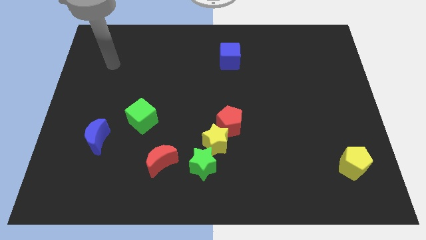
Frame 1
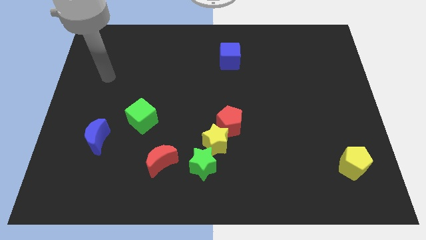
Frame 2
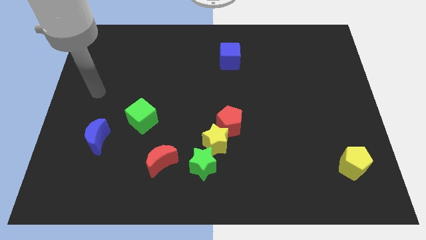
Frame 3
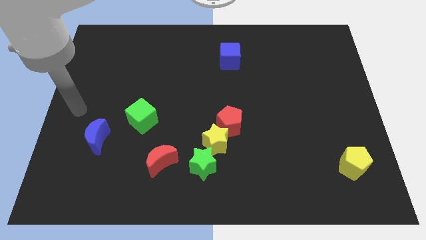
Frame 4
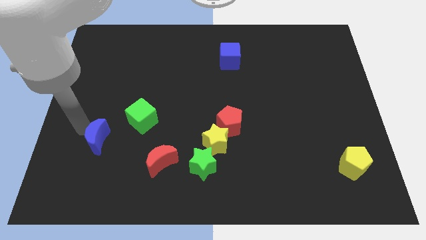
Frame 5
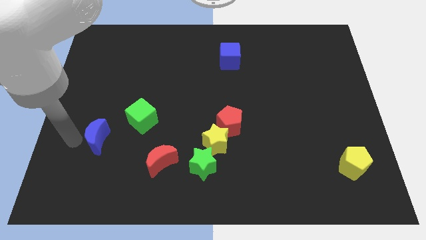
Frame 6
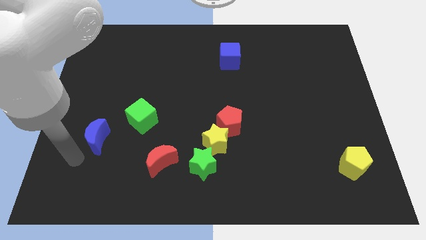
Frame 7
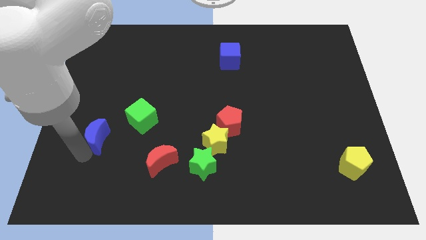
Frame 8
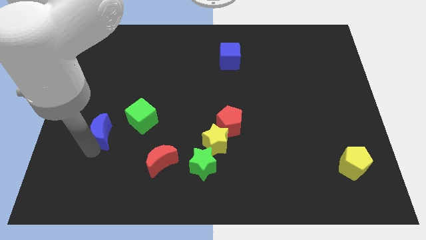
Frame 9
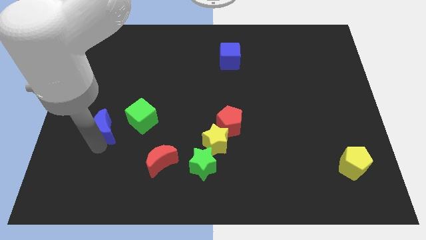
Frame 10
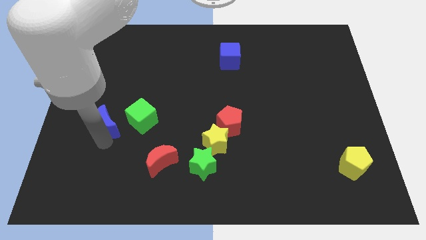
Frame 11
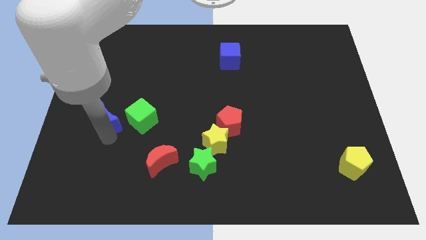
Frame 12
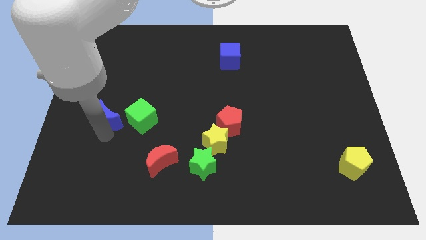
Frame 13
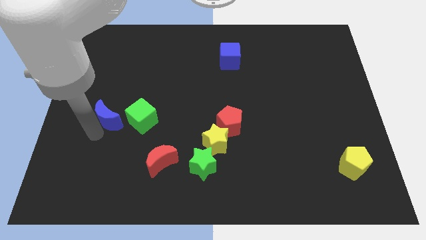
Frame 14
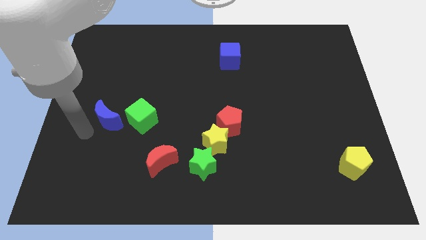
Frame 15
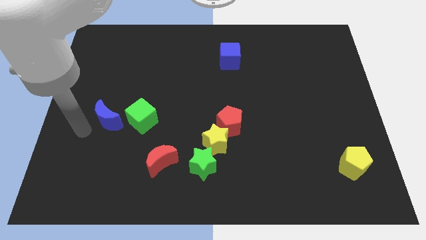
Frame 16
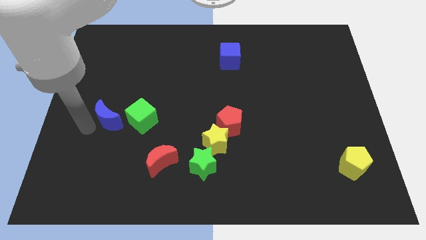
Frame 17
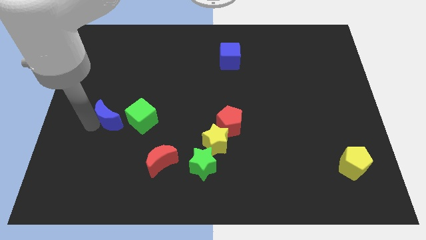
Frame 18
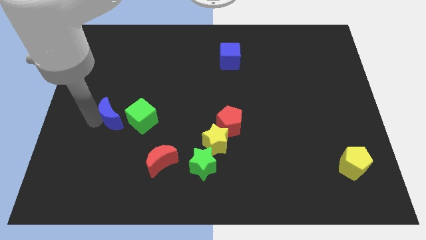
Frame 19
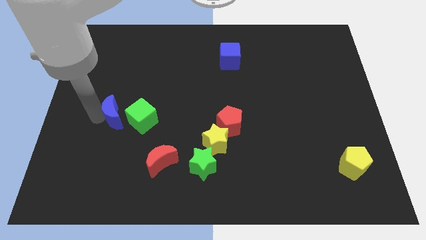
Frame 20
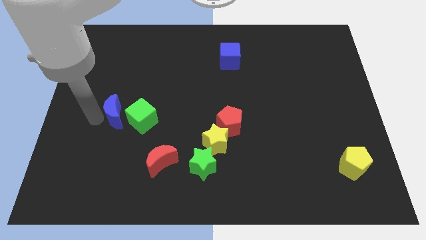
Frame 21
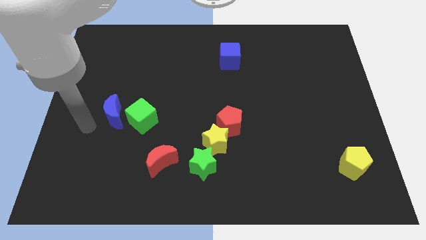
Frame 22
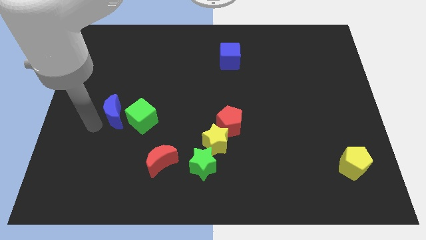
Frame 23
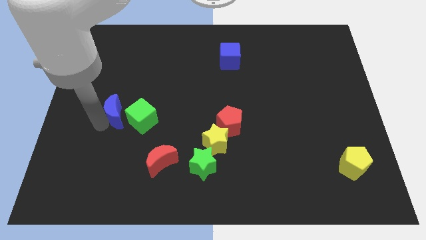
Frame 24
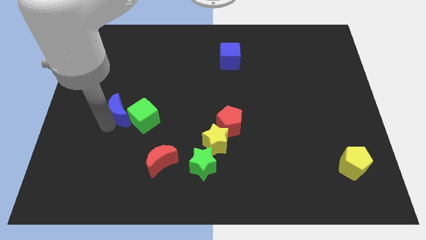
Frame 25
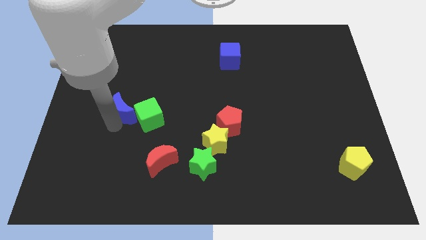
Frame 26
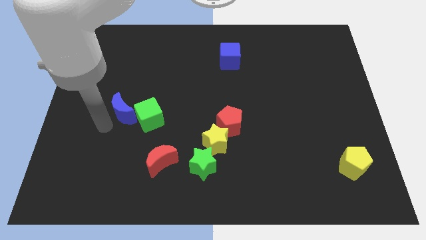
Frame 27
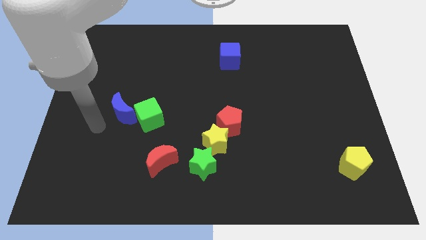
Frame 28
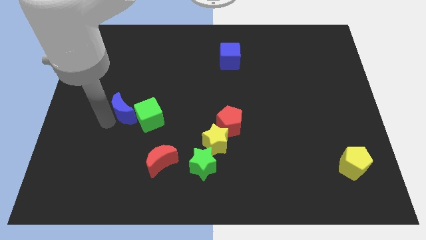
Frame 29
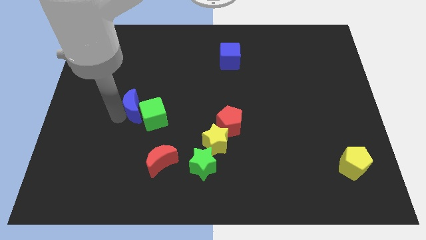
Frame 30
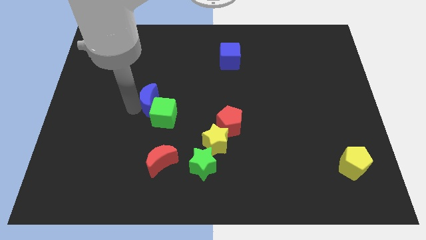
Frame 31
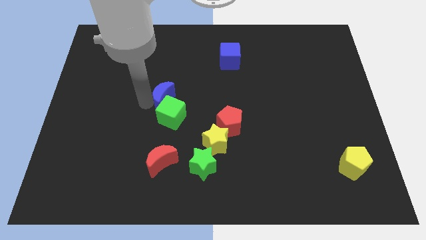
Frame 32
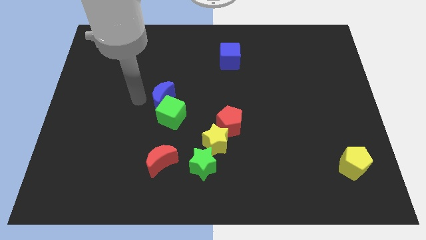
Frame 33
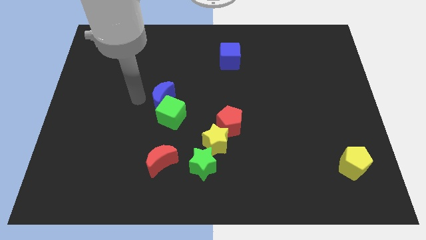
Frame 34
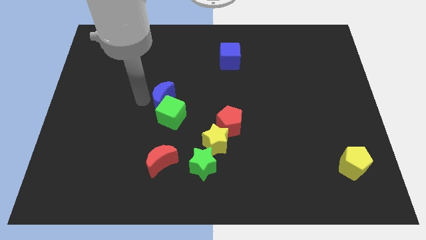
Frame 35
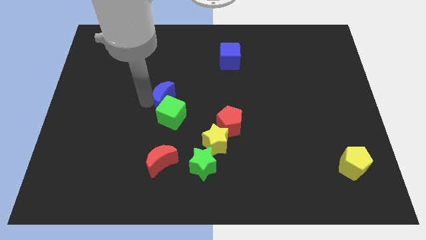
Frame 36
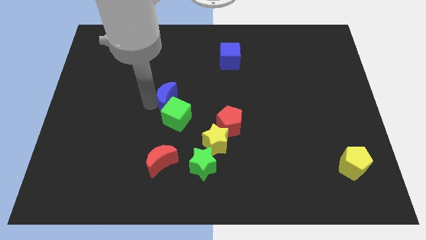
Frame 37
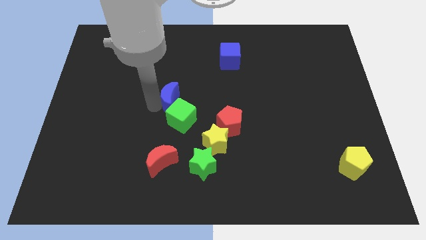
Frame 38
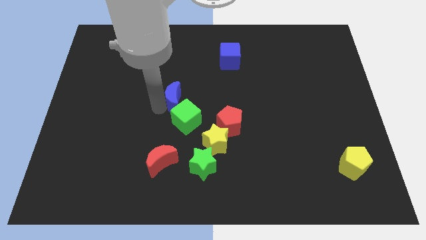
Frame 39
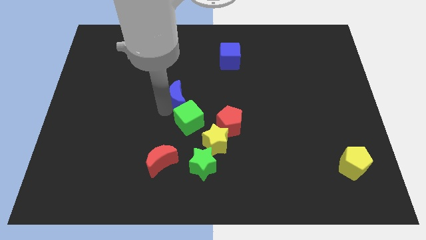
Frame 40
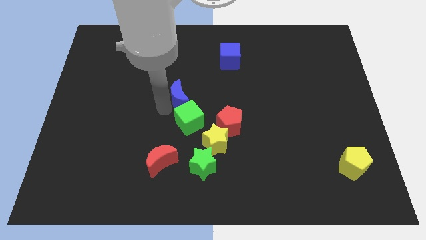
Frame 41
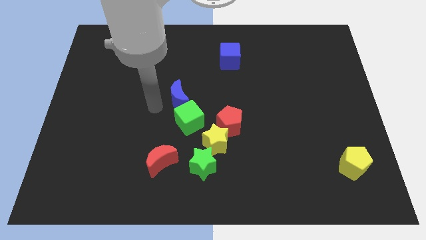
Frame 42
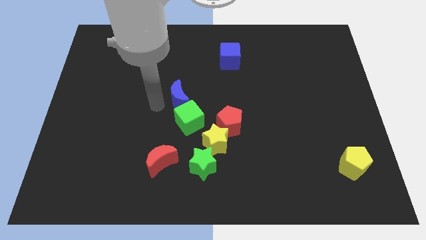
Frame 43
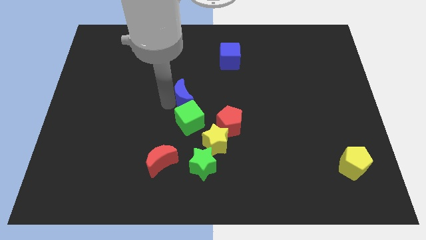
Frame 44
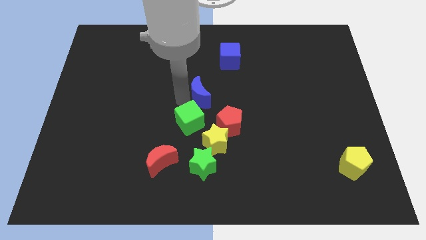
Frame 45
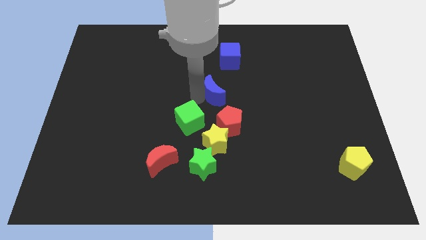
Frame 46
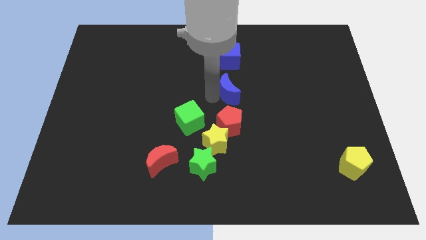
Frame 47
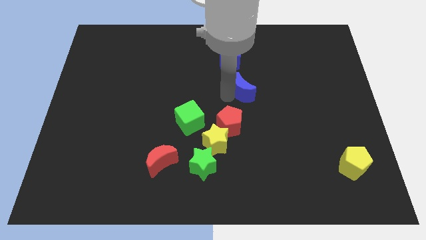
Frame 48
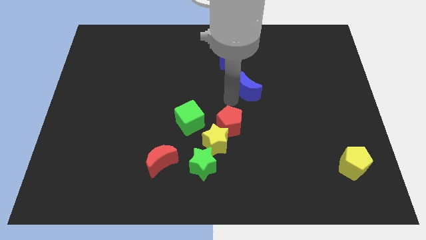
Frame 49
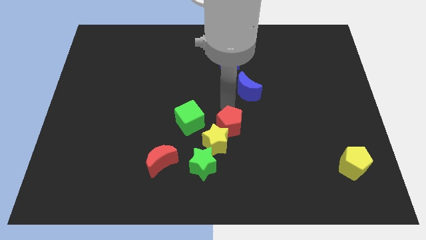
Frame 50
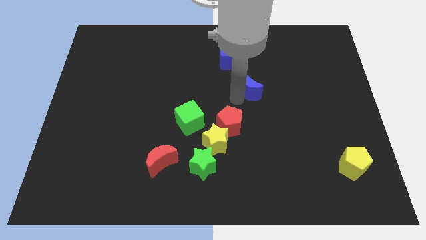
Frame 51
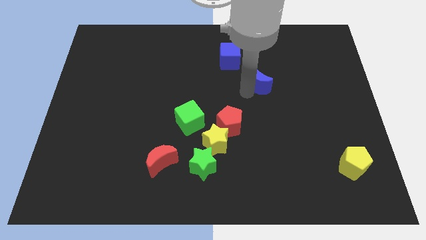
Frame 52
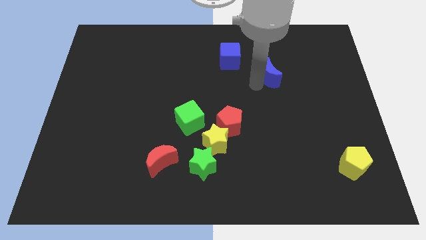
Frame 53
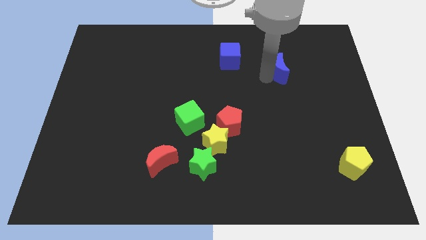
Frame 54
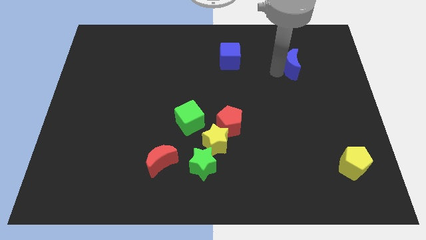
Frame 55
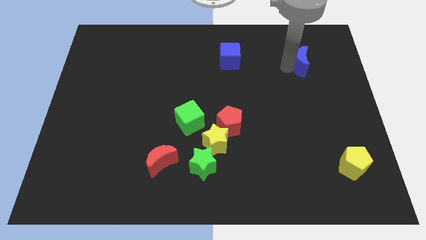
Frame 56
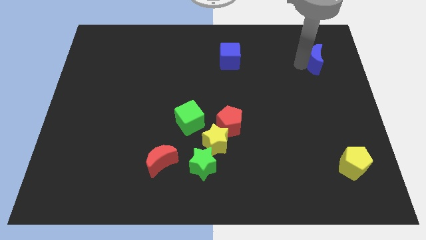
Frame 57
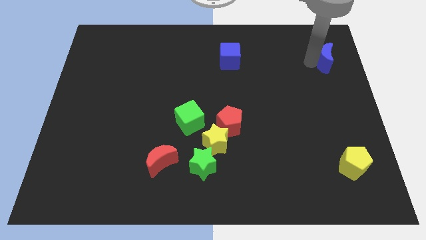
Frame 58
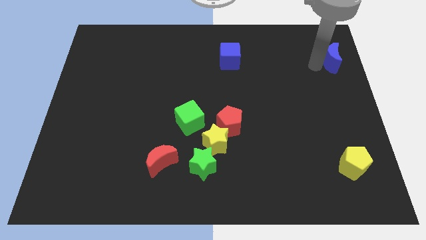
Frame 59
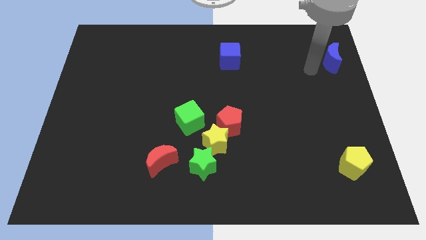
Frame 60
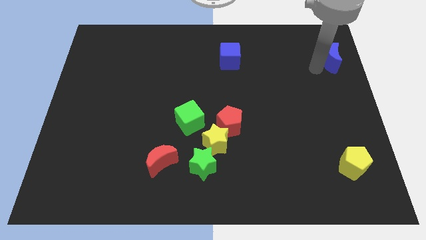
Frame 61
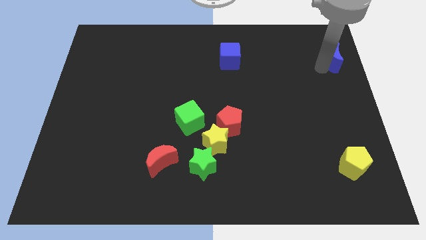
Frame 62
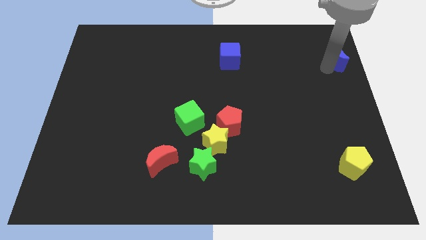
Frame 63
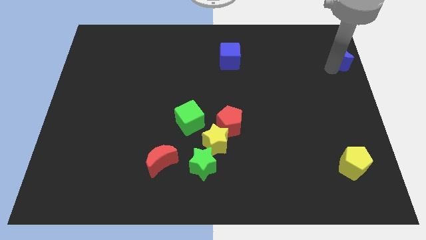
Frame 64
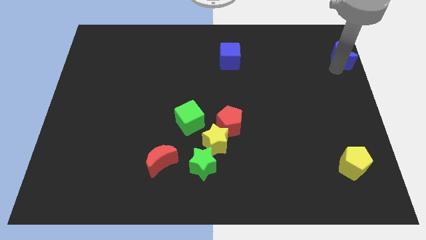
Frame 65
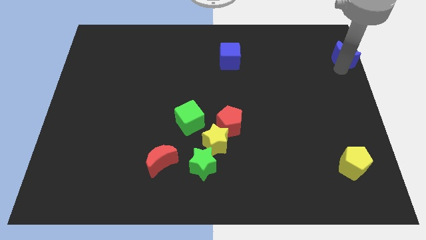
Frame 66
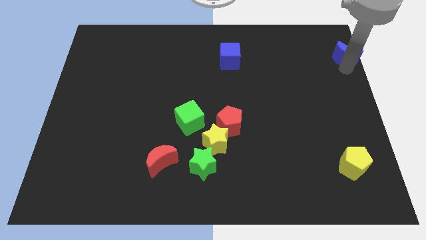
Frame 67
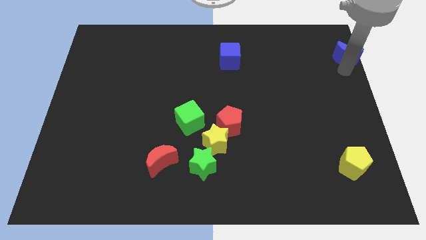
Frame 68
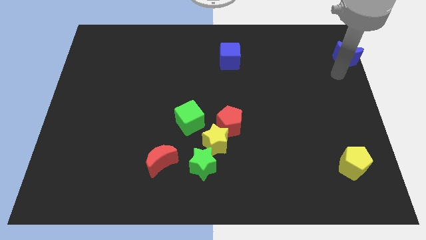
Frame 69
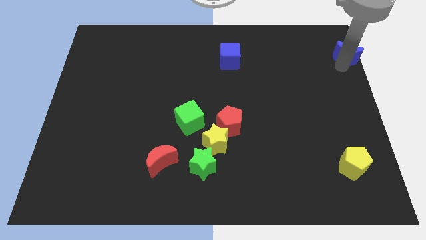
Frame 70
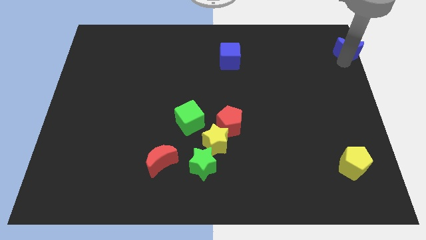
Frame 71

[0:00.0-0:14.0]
slide the blue moon to the top right
